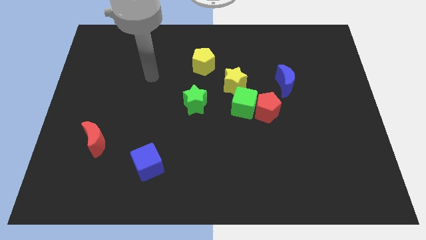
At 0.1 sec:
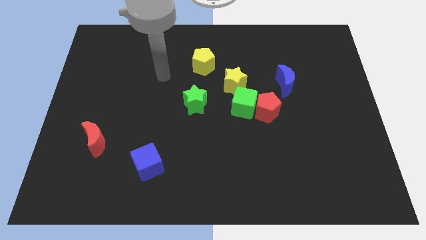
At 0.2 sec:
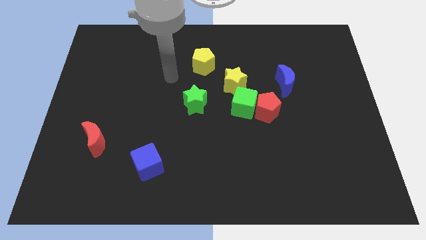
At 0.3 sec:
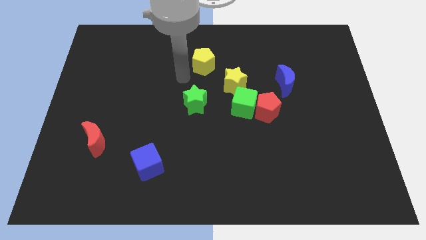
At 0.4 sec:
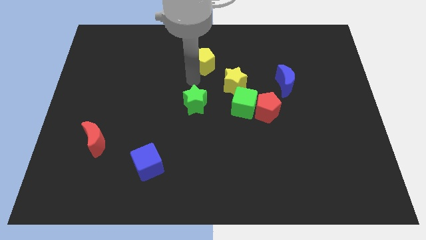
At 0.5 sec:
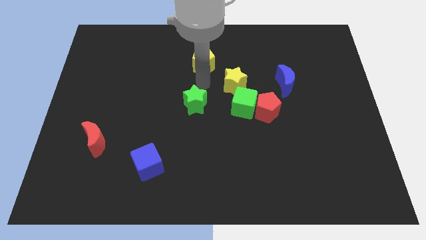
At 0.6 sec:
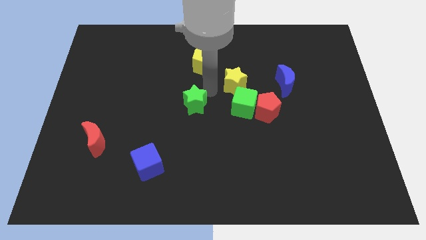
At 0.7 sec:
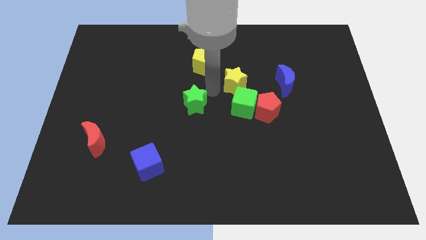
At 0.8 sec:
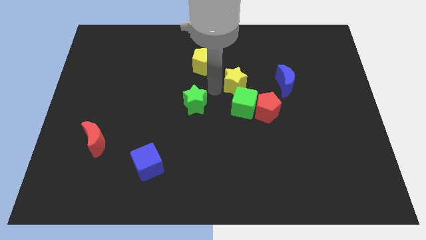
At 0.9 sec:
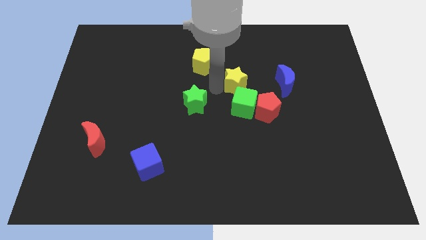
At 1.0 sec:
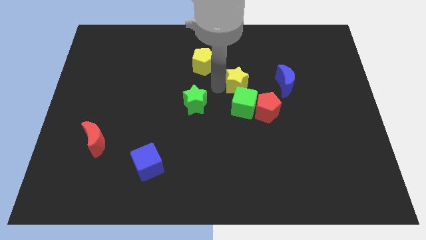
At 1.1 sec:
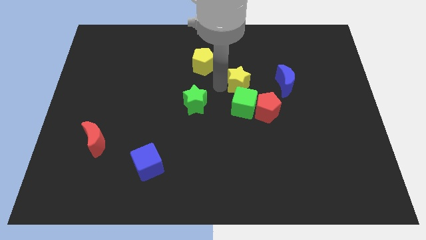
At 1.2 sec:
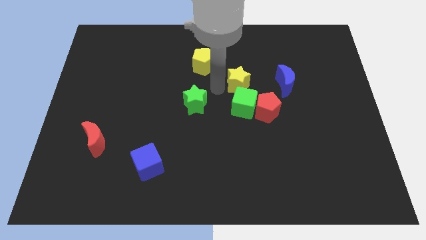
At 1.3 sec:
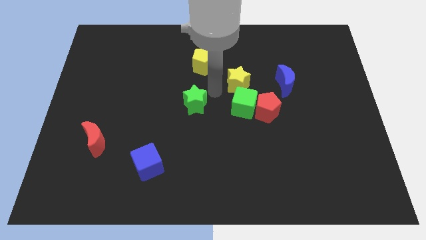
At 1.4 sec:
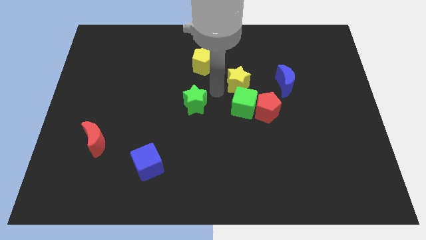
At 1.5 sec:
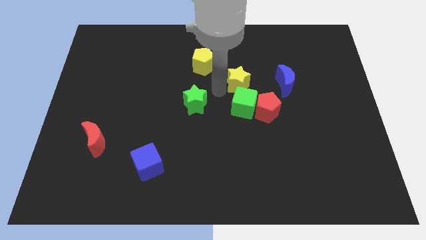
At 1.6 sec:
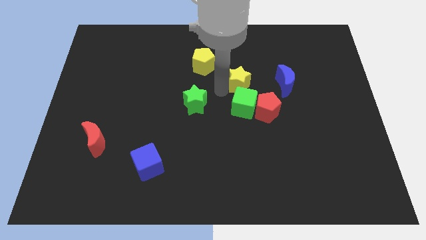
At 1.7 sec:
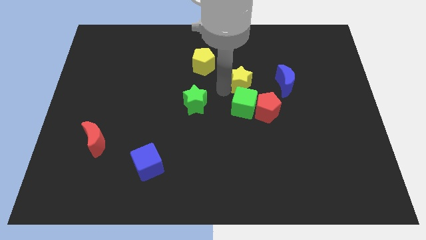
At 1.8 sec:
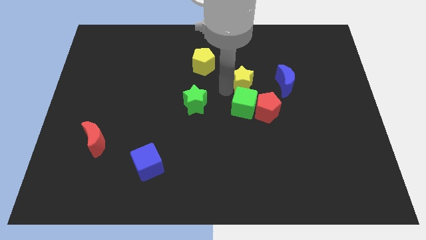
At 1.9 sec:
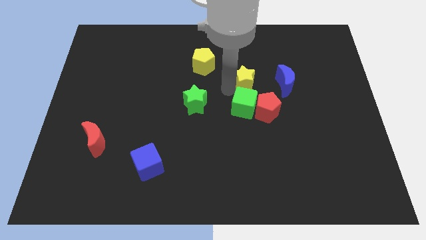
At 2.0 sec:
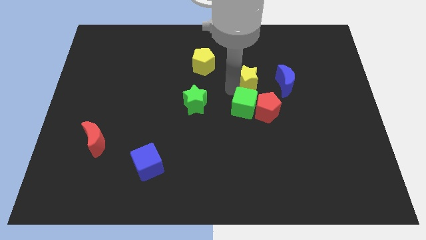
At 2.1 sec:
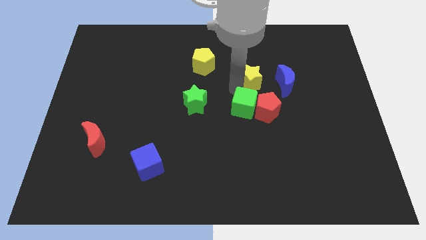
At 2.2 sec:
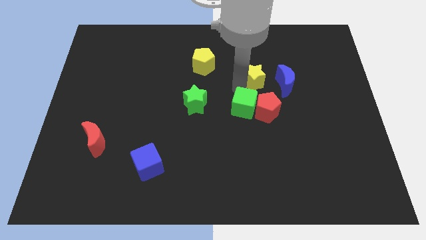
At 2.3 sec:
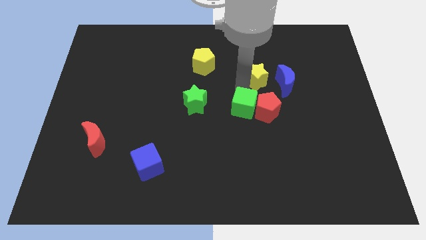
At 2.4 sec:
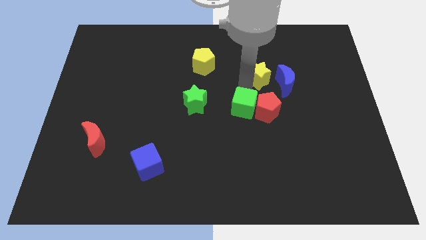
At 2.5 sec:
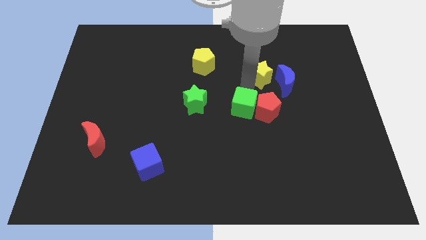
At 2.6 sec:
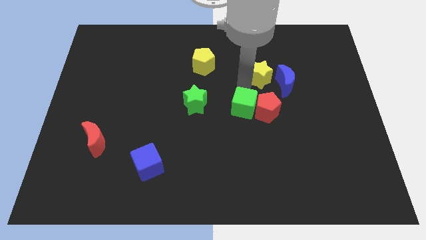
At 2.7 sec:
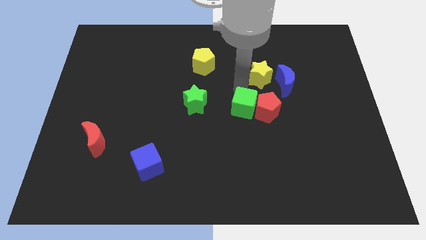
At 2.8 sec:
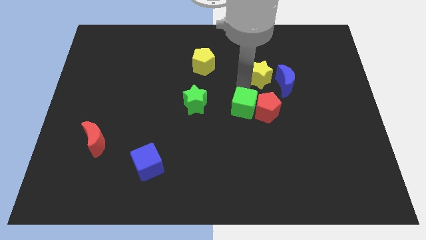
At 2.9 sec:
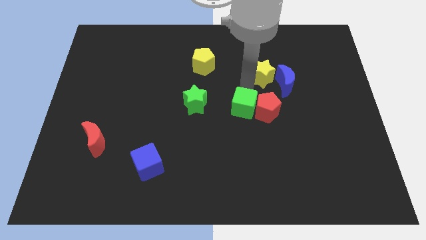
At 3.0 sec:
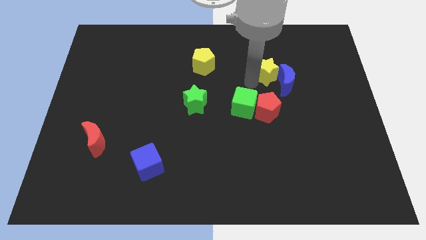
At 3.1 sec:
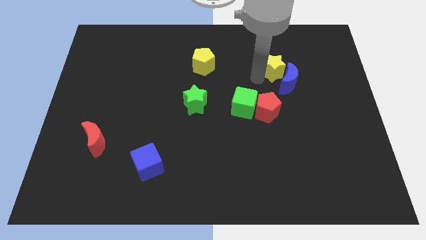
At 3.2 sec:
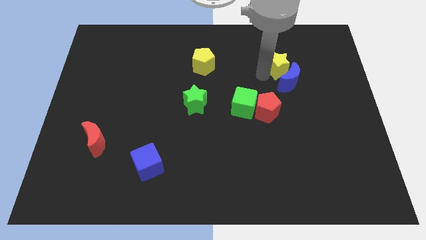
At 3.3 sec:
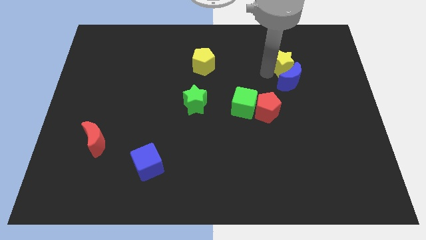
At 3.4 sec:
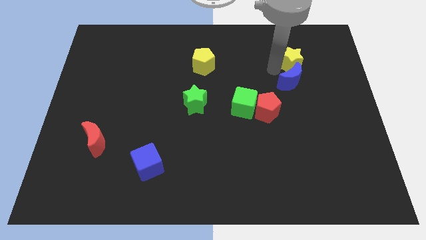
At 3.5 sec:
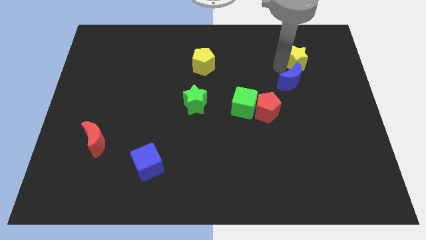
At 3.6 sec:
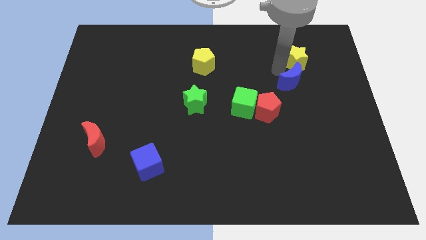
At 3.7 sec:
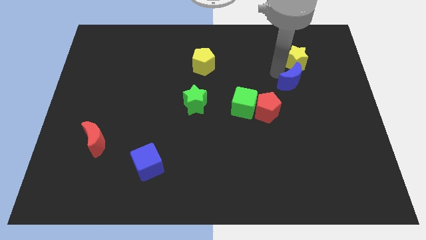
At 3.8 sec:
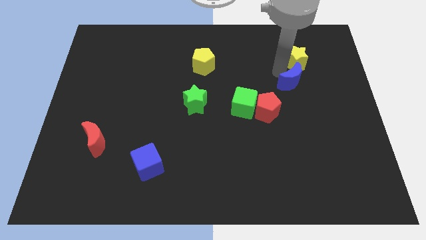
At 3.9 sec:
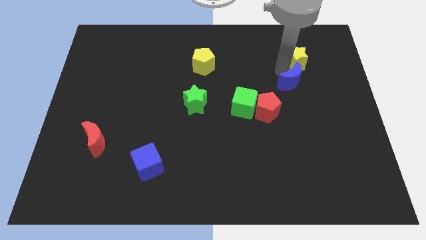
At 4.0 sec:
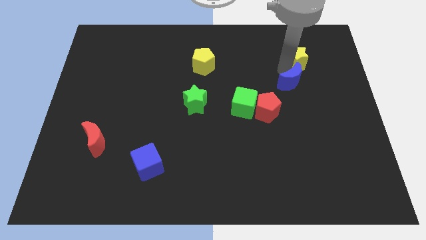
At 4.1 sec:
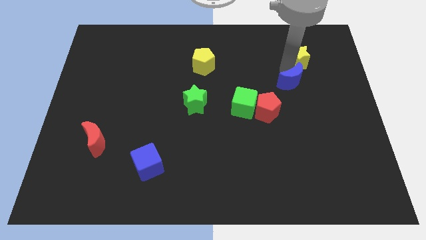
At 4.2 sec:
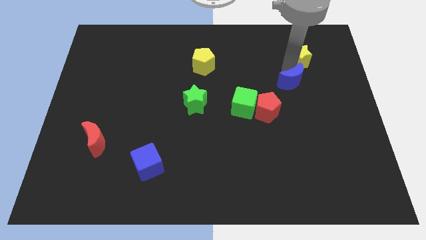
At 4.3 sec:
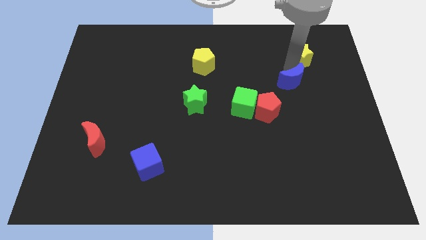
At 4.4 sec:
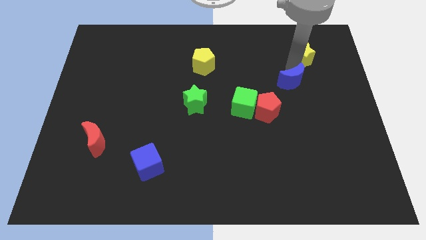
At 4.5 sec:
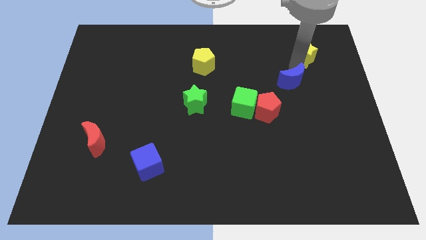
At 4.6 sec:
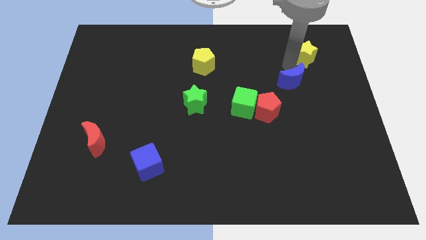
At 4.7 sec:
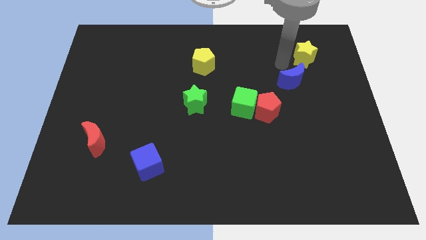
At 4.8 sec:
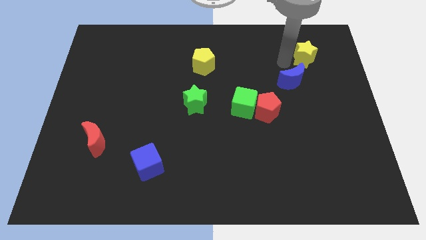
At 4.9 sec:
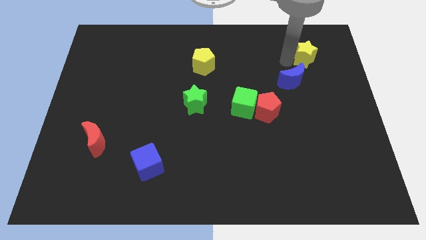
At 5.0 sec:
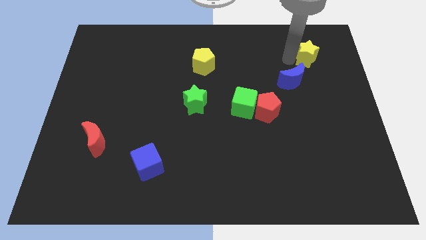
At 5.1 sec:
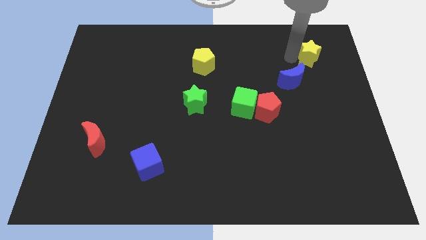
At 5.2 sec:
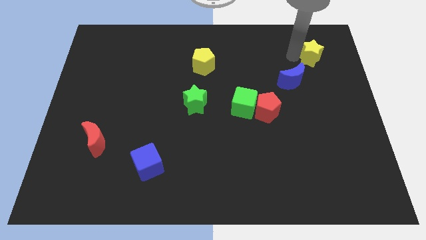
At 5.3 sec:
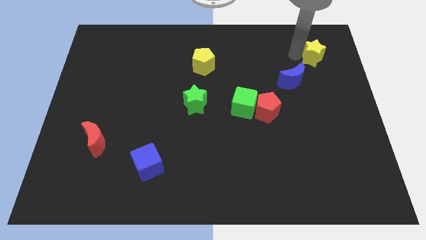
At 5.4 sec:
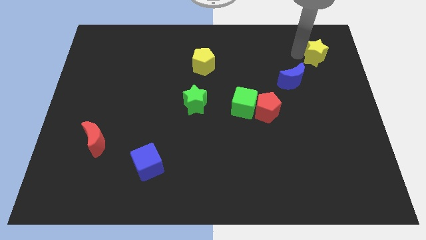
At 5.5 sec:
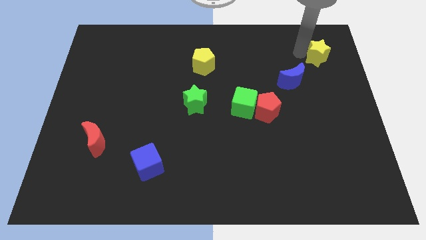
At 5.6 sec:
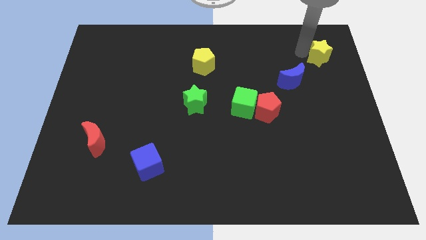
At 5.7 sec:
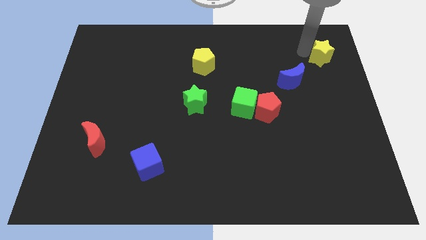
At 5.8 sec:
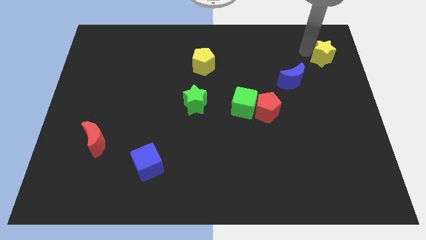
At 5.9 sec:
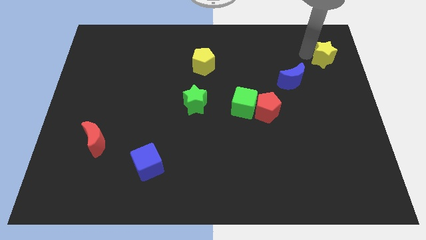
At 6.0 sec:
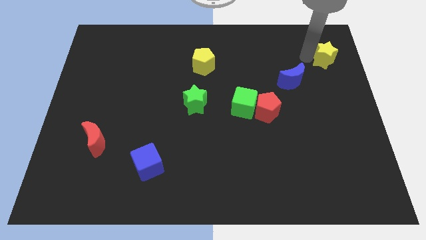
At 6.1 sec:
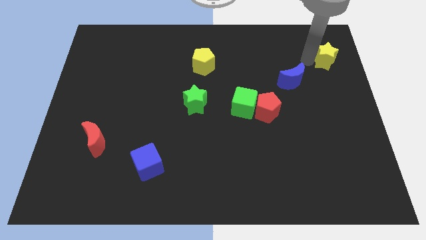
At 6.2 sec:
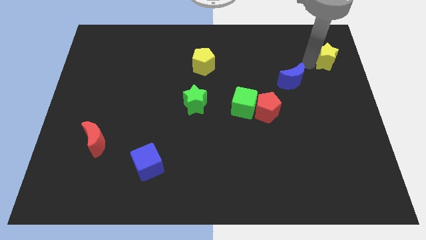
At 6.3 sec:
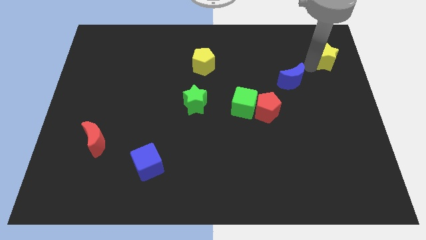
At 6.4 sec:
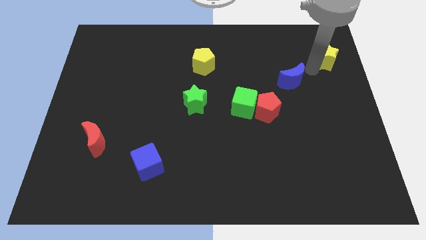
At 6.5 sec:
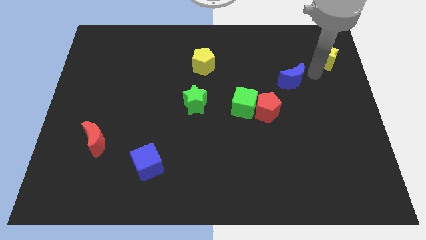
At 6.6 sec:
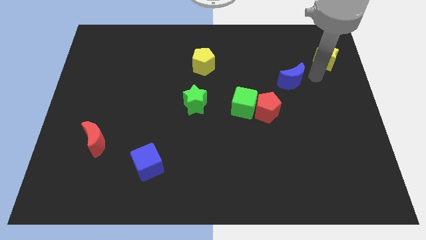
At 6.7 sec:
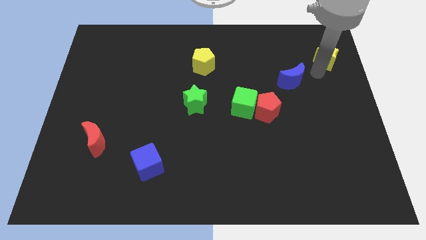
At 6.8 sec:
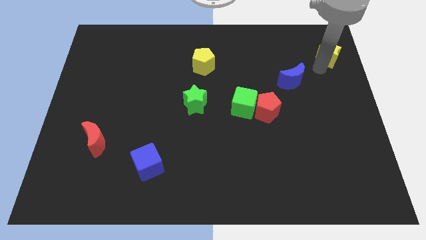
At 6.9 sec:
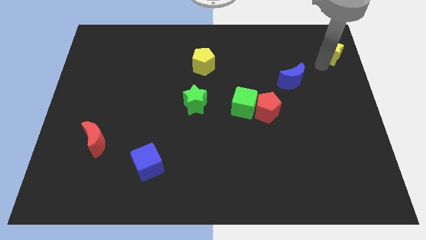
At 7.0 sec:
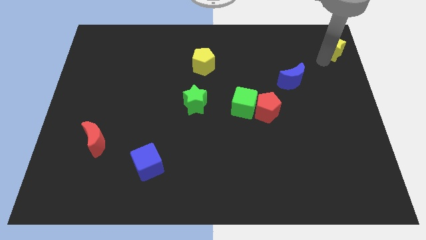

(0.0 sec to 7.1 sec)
slide the yellow star to the top right
